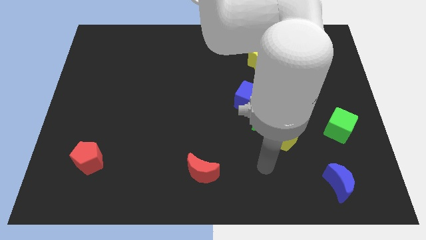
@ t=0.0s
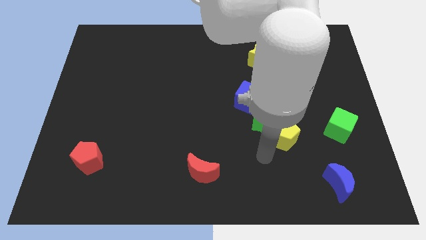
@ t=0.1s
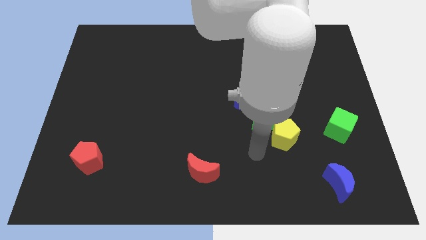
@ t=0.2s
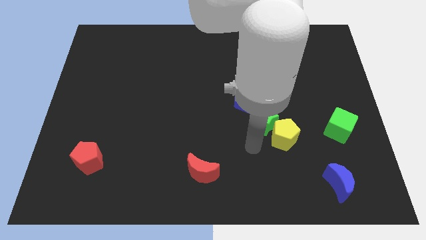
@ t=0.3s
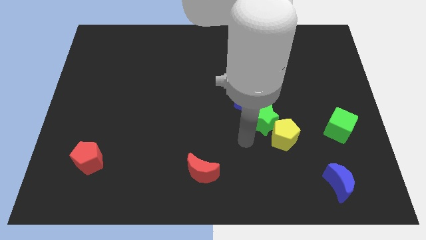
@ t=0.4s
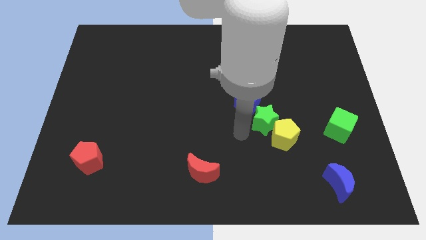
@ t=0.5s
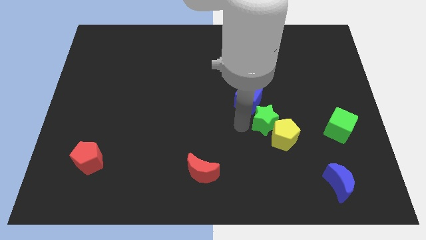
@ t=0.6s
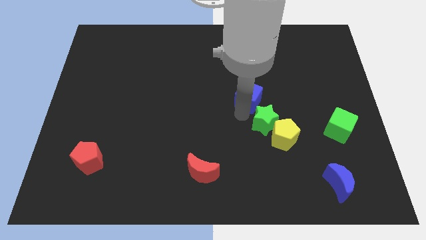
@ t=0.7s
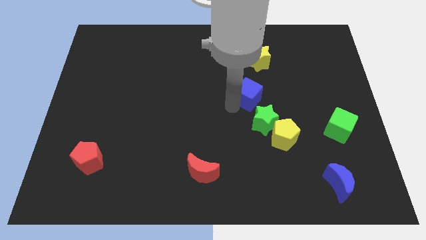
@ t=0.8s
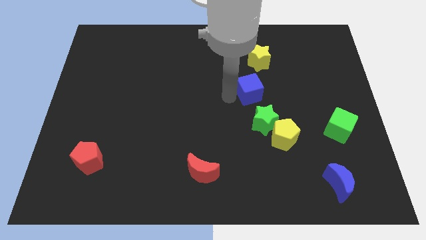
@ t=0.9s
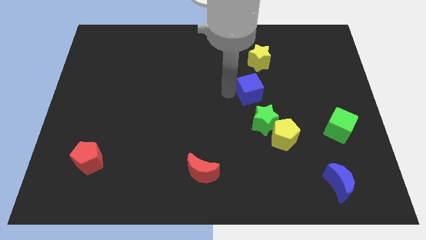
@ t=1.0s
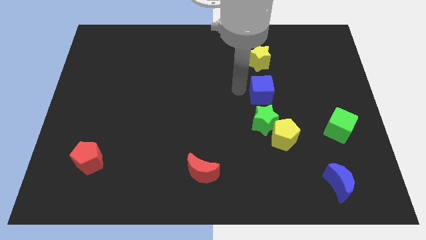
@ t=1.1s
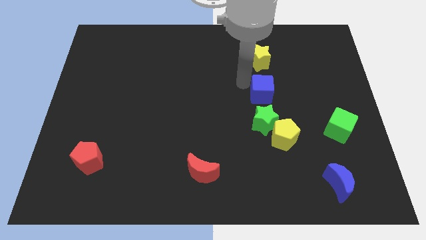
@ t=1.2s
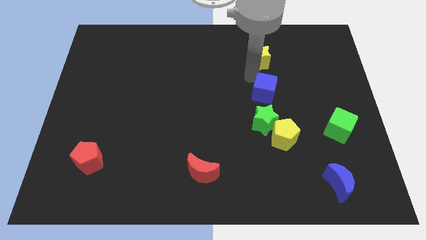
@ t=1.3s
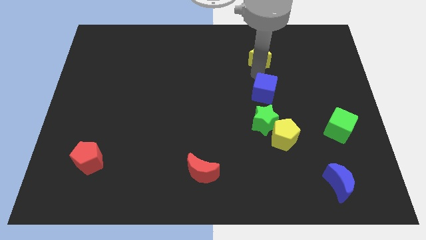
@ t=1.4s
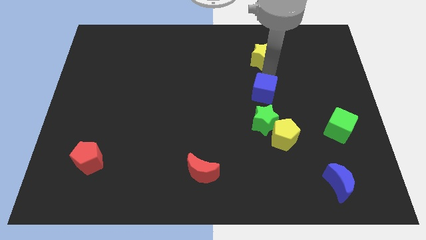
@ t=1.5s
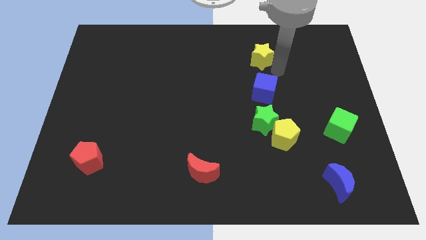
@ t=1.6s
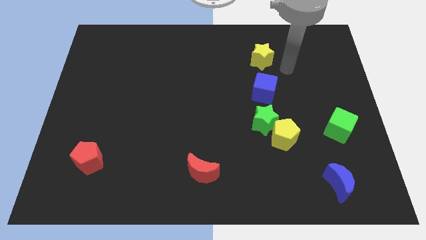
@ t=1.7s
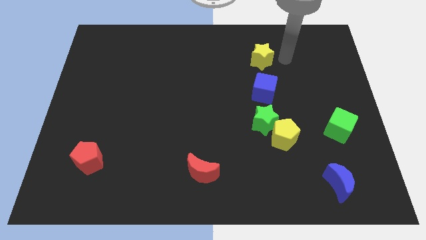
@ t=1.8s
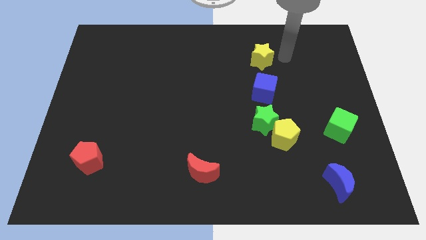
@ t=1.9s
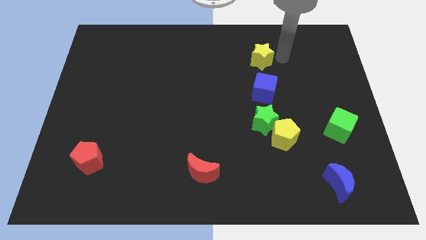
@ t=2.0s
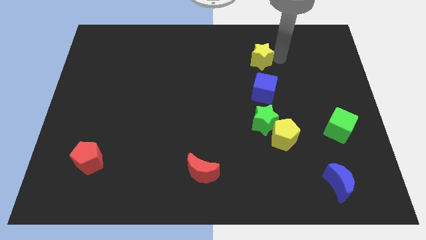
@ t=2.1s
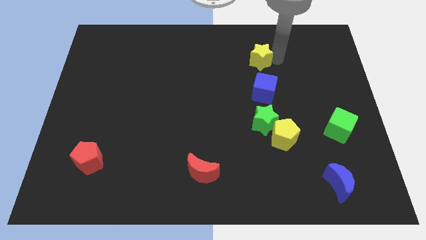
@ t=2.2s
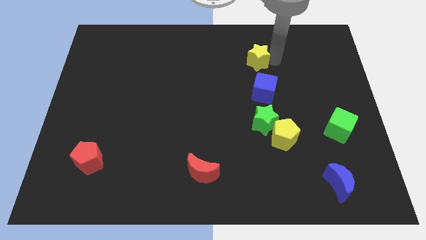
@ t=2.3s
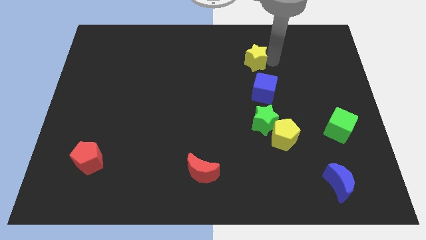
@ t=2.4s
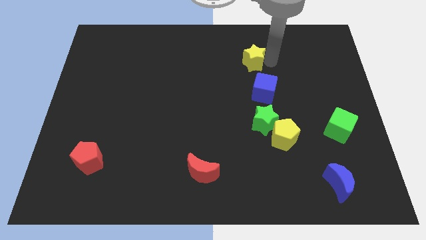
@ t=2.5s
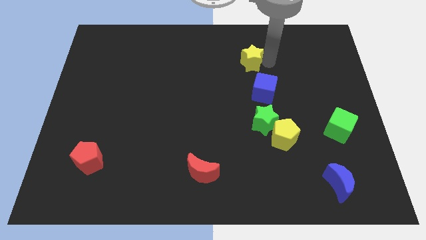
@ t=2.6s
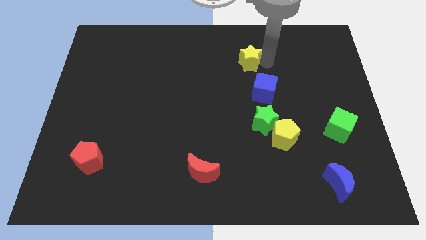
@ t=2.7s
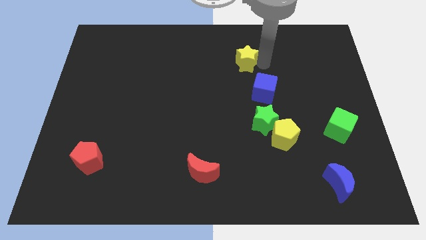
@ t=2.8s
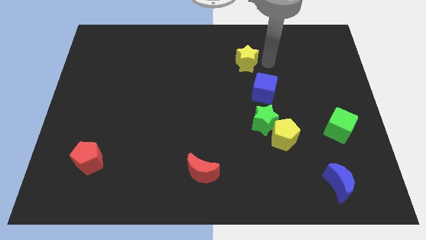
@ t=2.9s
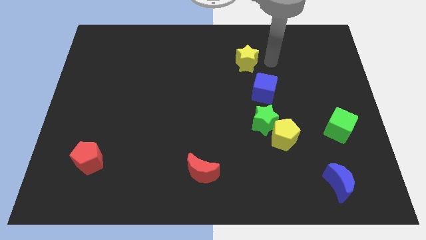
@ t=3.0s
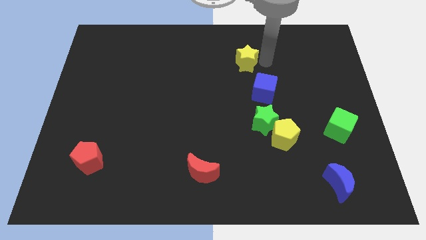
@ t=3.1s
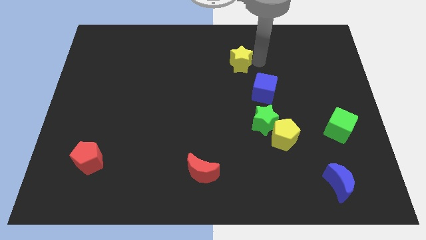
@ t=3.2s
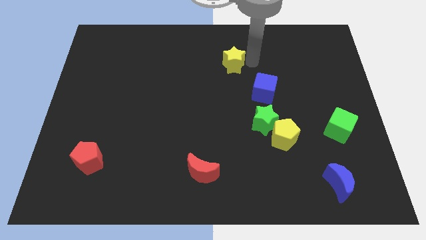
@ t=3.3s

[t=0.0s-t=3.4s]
slide the yellow star a little bit to the left

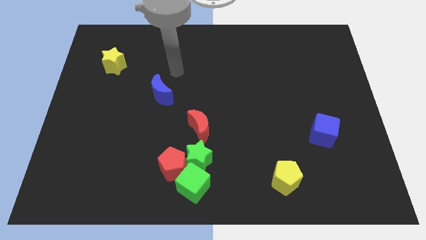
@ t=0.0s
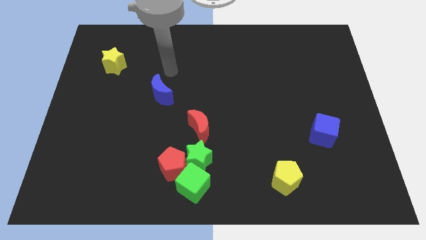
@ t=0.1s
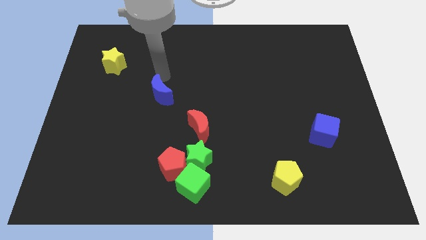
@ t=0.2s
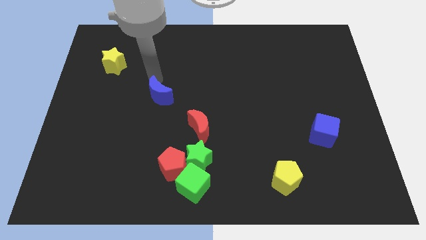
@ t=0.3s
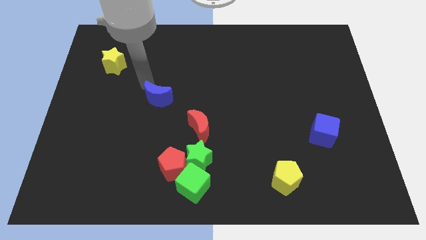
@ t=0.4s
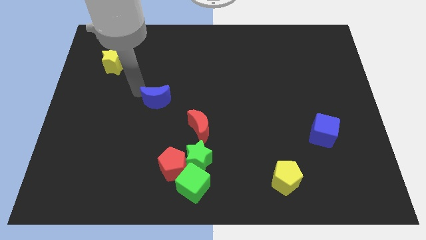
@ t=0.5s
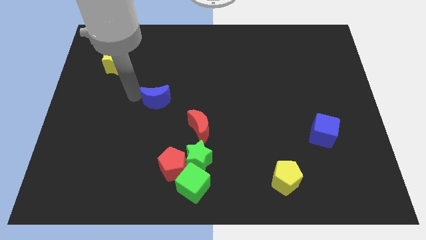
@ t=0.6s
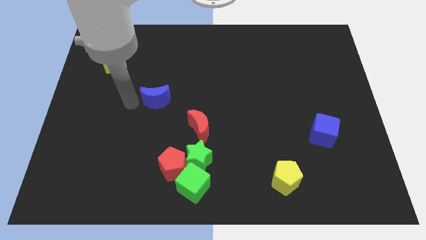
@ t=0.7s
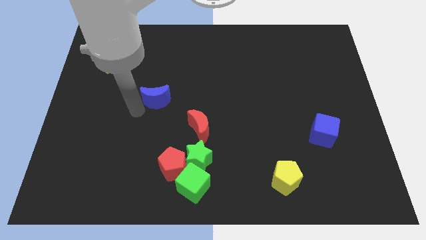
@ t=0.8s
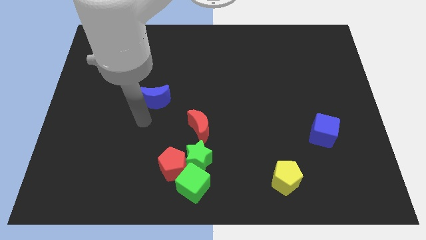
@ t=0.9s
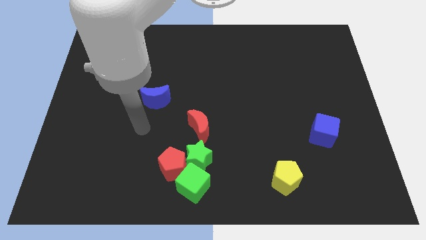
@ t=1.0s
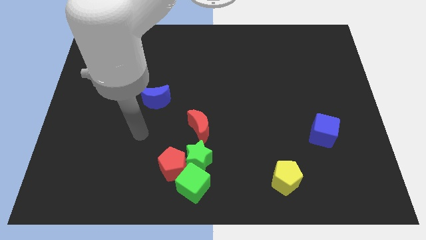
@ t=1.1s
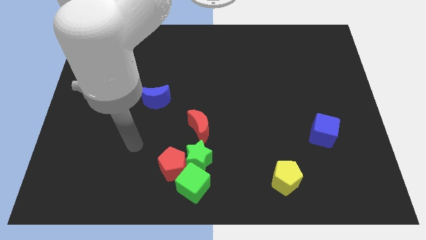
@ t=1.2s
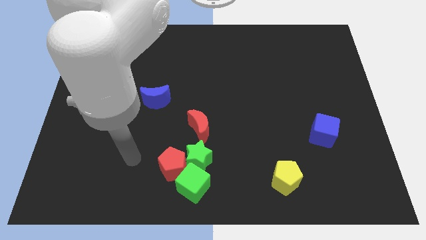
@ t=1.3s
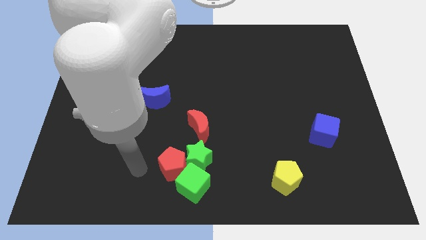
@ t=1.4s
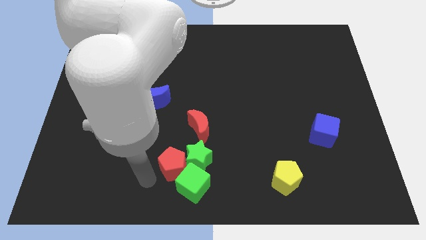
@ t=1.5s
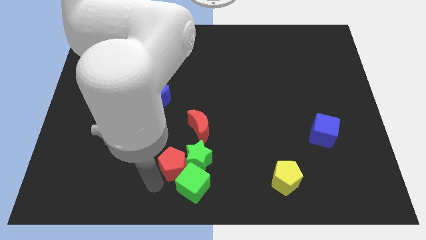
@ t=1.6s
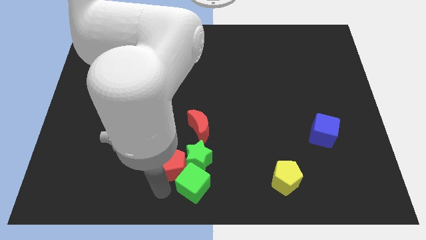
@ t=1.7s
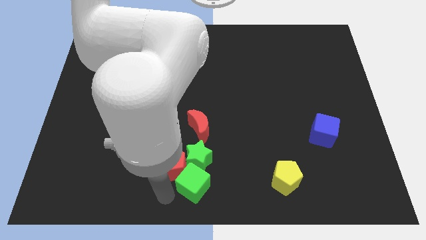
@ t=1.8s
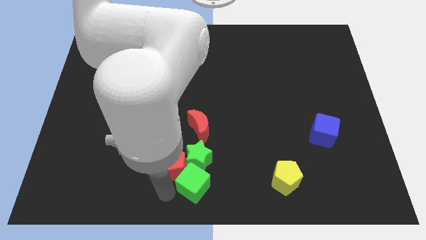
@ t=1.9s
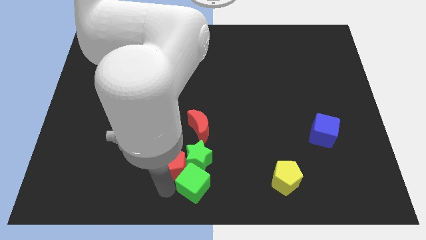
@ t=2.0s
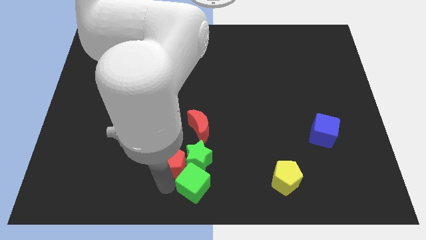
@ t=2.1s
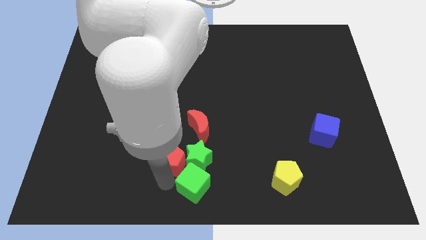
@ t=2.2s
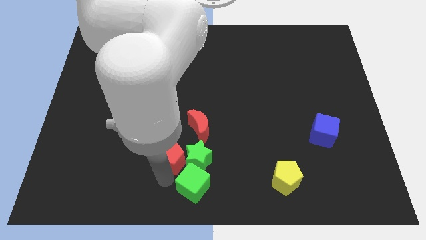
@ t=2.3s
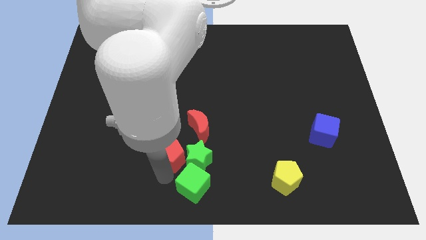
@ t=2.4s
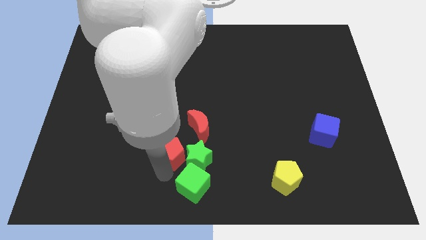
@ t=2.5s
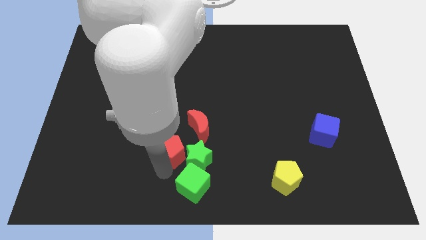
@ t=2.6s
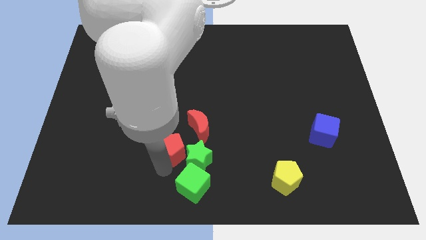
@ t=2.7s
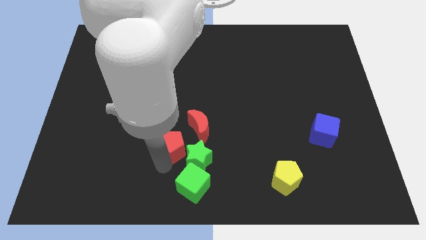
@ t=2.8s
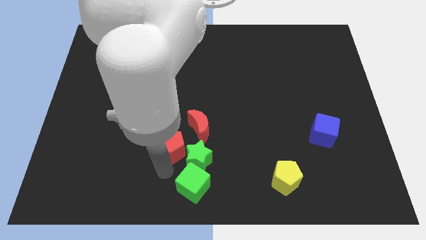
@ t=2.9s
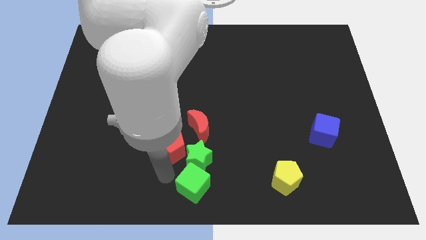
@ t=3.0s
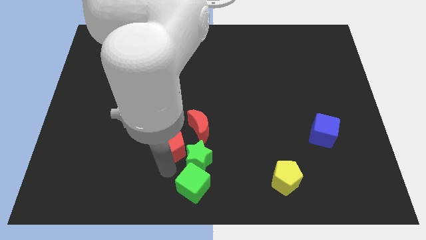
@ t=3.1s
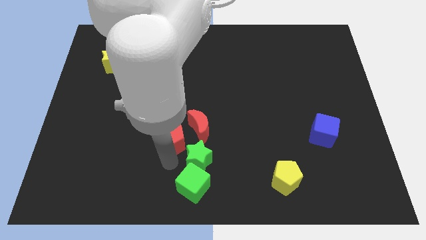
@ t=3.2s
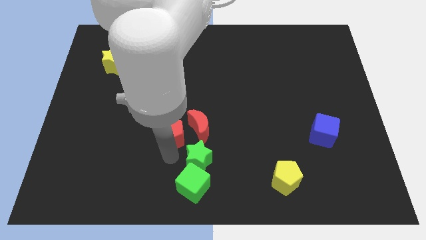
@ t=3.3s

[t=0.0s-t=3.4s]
move the red pentagon a little bit upwards

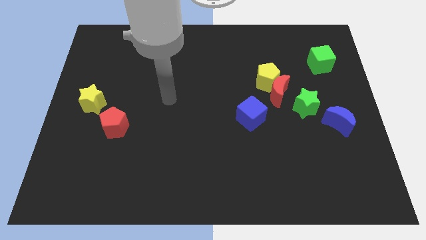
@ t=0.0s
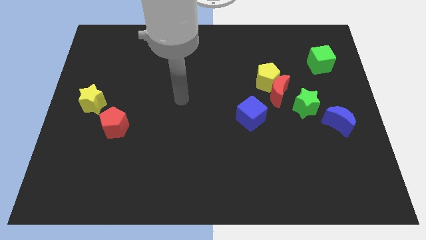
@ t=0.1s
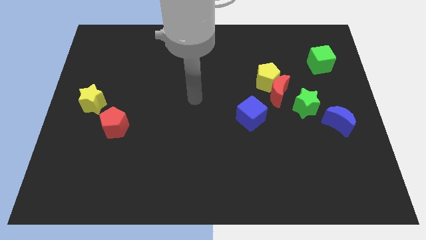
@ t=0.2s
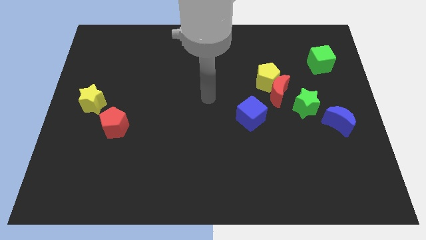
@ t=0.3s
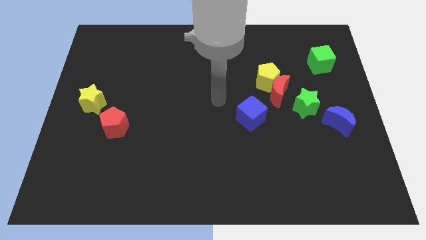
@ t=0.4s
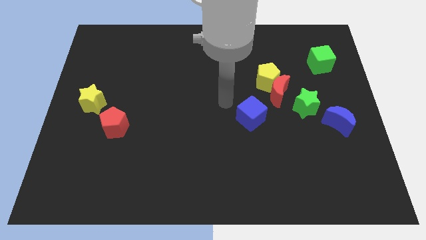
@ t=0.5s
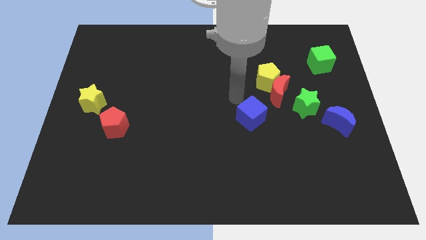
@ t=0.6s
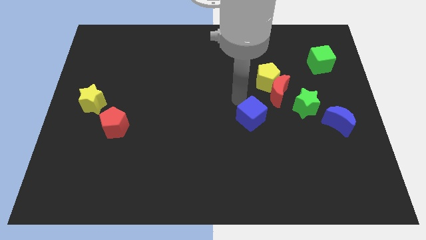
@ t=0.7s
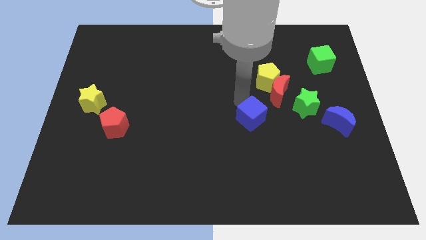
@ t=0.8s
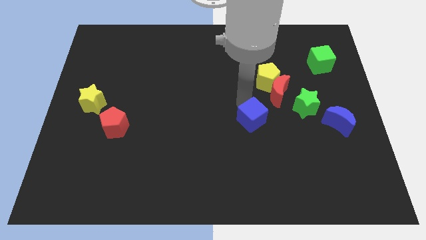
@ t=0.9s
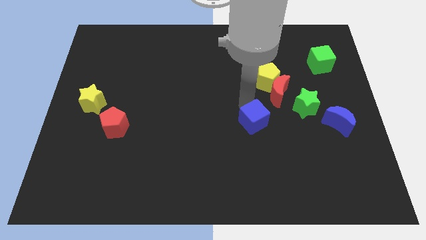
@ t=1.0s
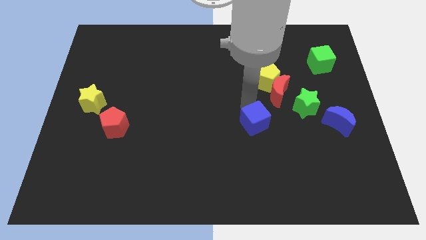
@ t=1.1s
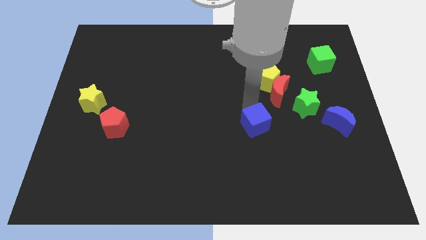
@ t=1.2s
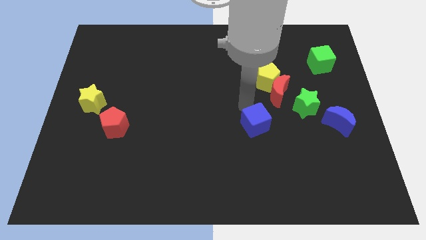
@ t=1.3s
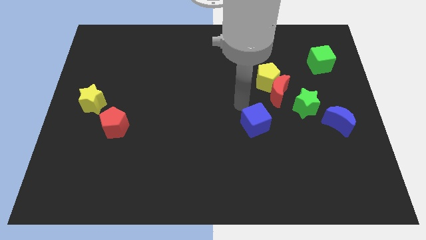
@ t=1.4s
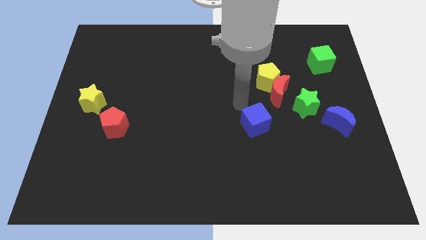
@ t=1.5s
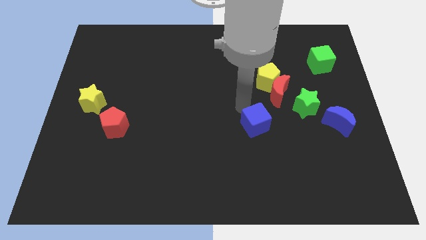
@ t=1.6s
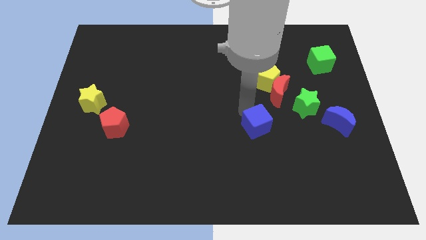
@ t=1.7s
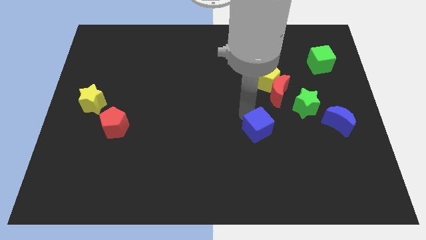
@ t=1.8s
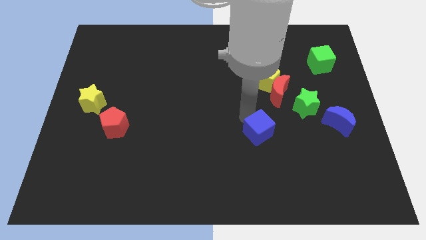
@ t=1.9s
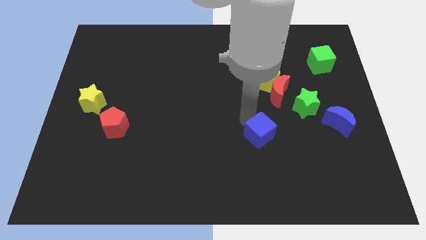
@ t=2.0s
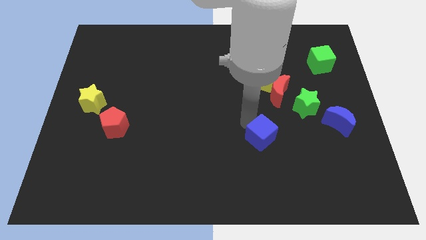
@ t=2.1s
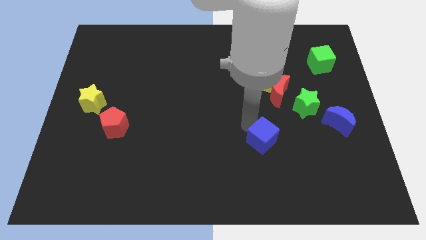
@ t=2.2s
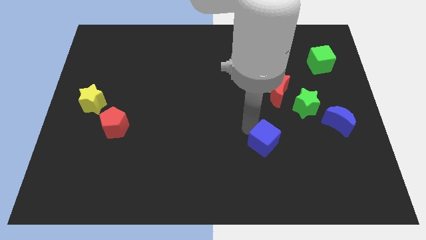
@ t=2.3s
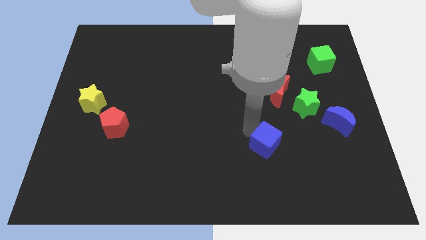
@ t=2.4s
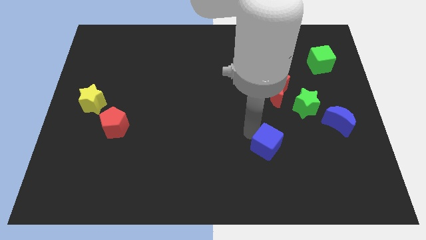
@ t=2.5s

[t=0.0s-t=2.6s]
slightly move the blue cube down and to the right
